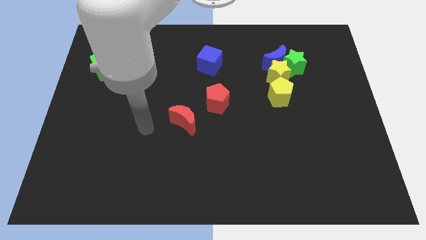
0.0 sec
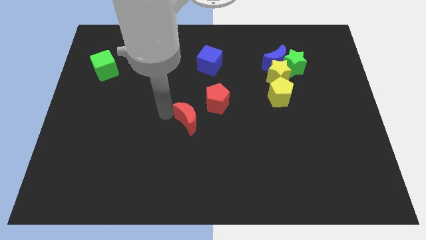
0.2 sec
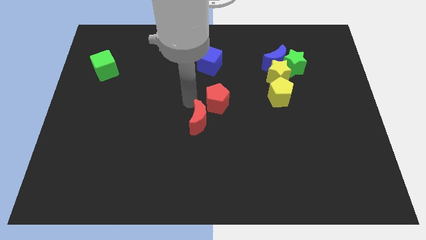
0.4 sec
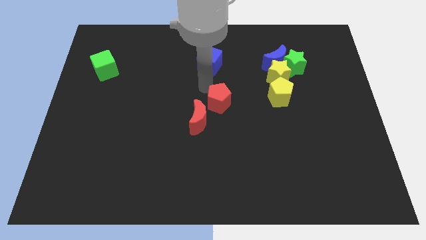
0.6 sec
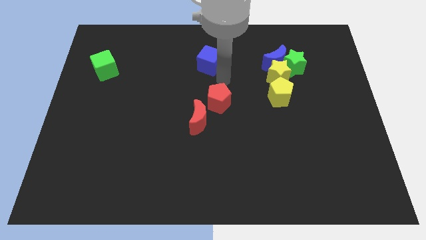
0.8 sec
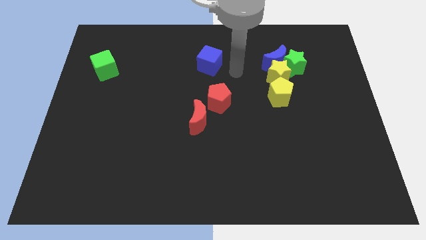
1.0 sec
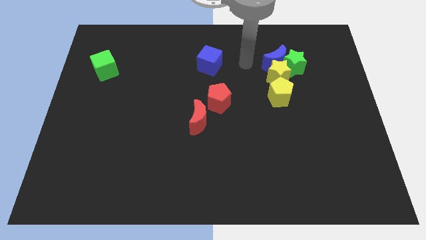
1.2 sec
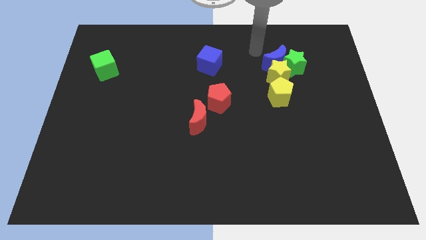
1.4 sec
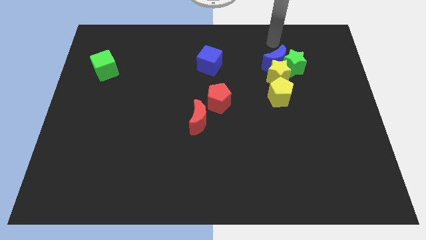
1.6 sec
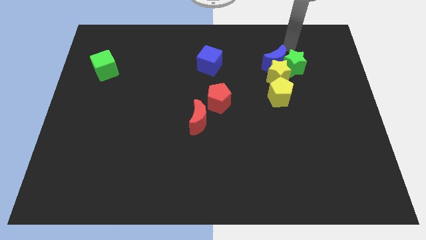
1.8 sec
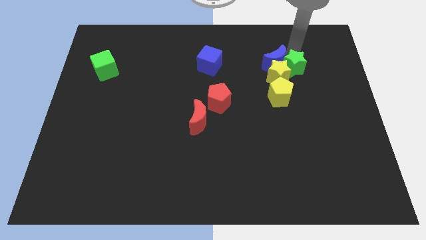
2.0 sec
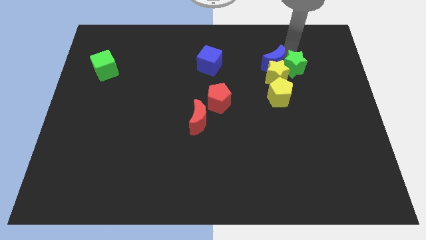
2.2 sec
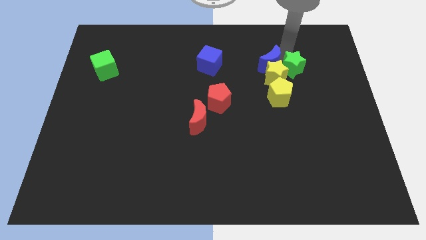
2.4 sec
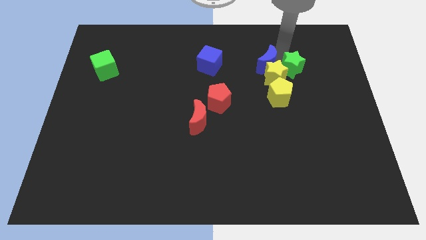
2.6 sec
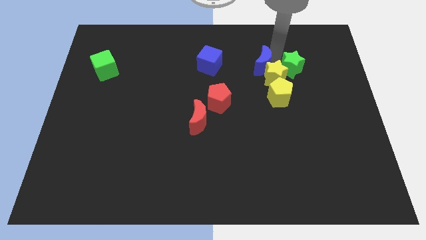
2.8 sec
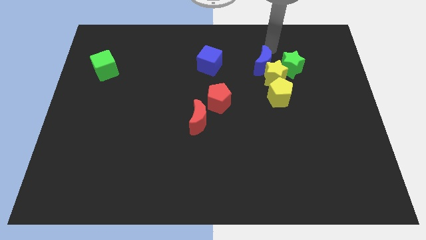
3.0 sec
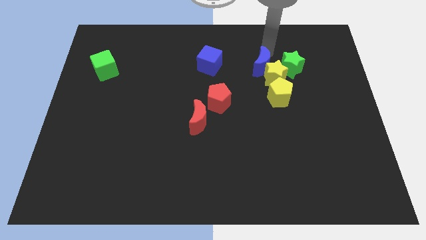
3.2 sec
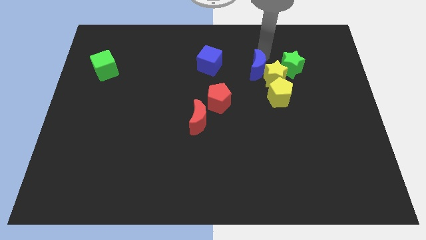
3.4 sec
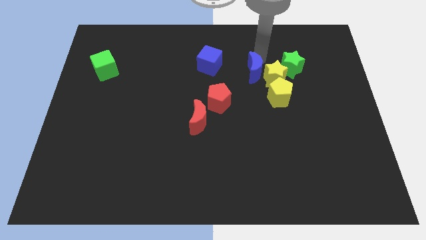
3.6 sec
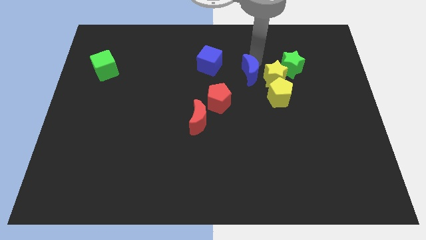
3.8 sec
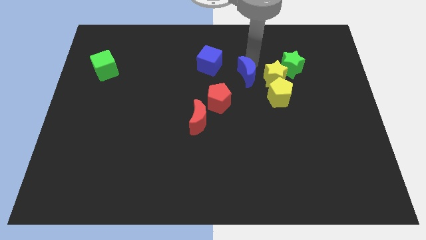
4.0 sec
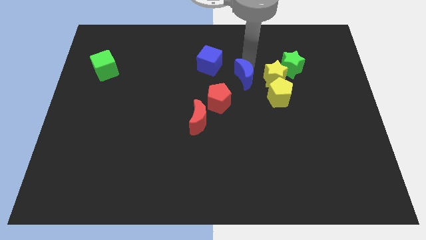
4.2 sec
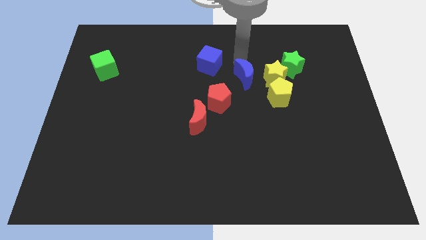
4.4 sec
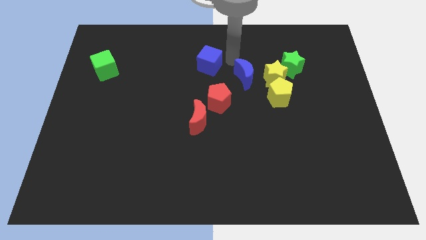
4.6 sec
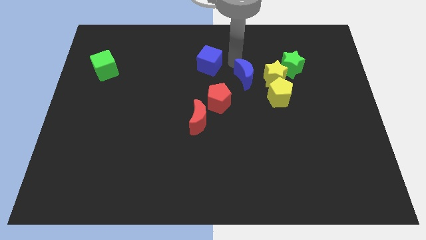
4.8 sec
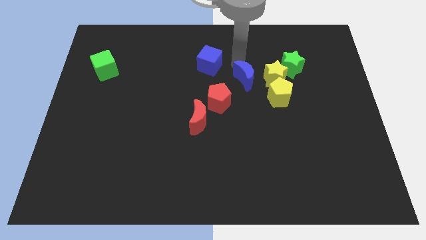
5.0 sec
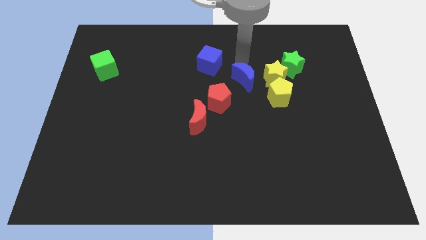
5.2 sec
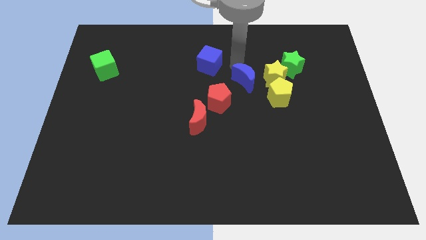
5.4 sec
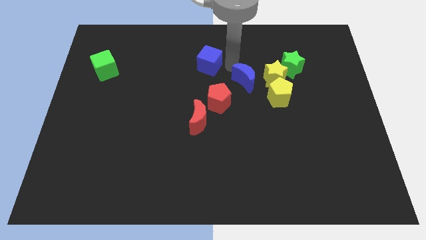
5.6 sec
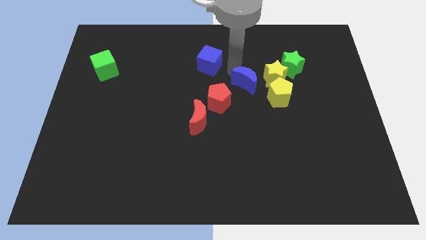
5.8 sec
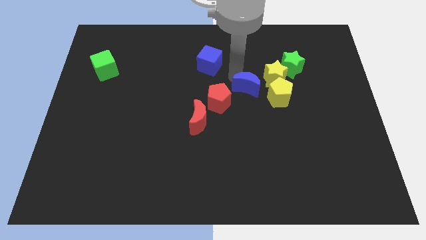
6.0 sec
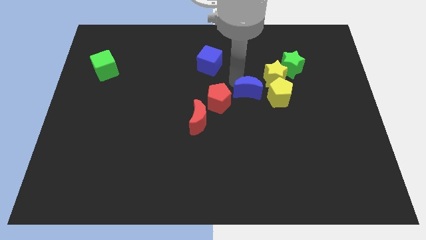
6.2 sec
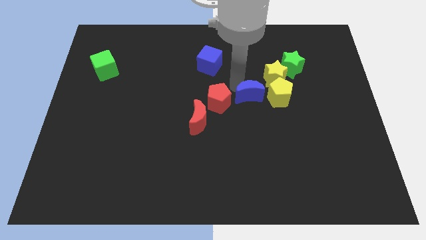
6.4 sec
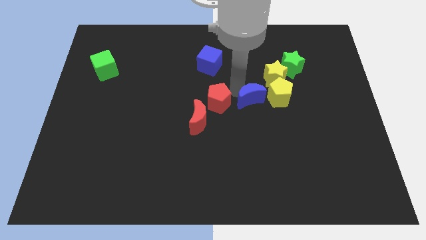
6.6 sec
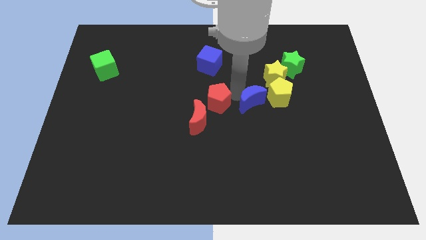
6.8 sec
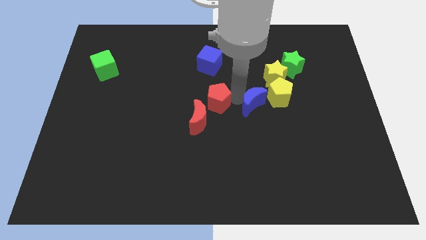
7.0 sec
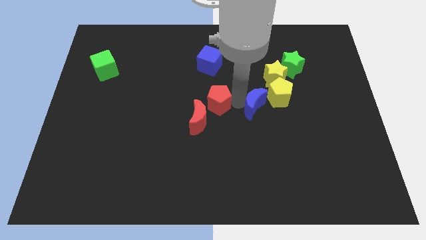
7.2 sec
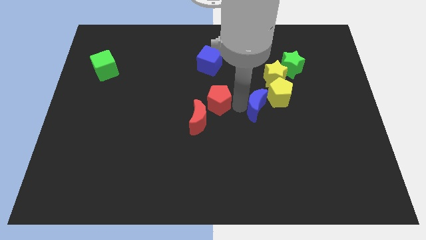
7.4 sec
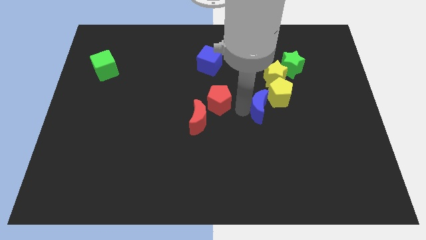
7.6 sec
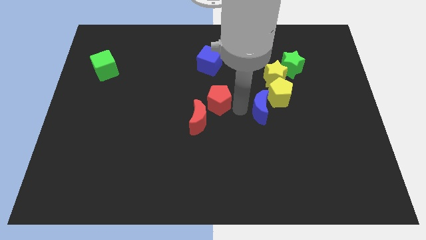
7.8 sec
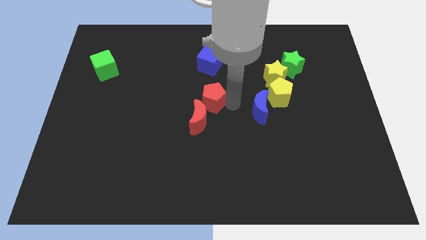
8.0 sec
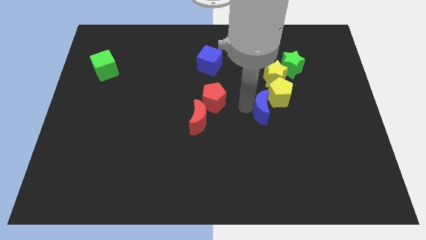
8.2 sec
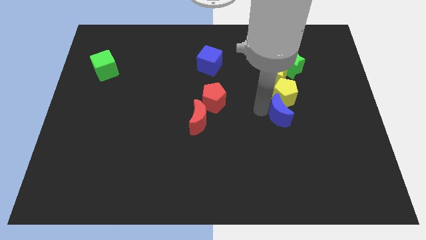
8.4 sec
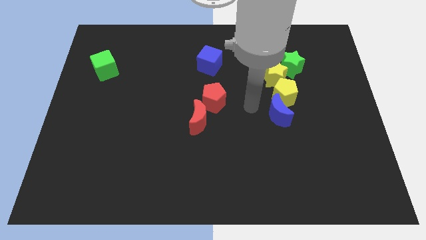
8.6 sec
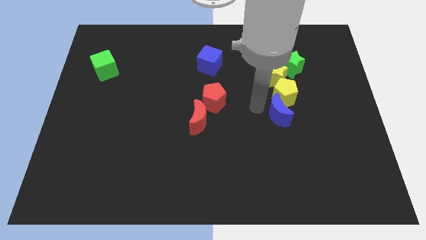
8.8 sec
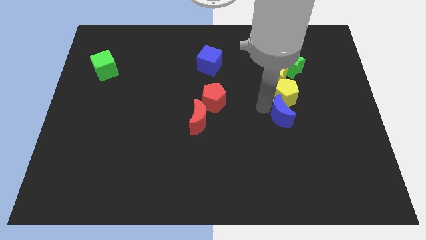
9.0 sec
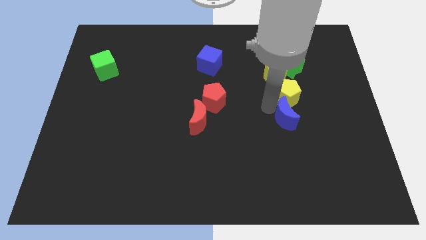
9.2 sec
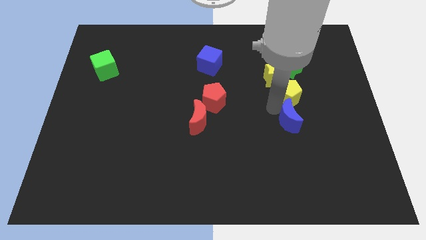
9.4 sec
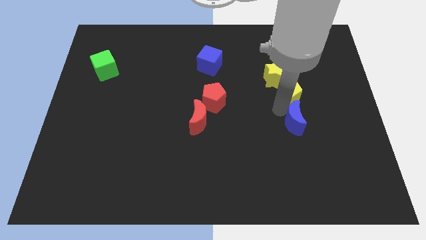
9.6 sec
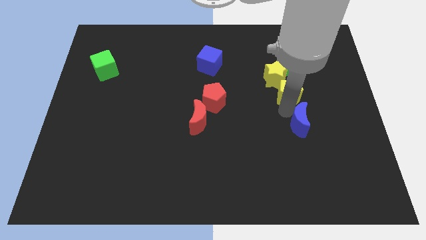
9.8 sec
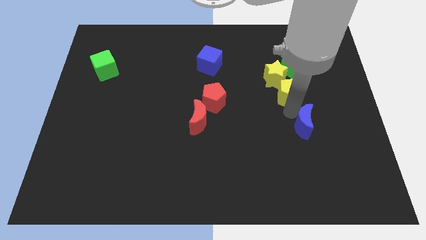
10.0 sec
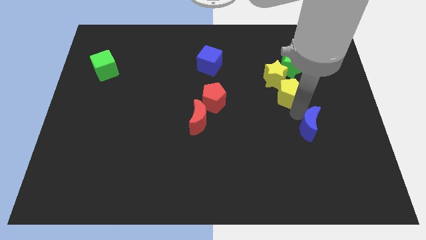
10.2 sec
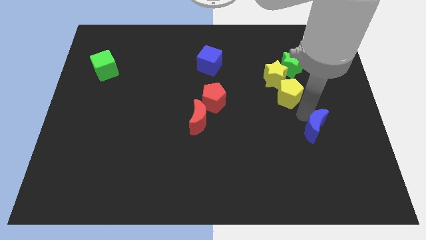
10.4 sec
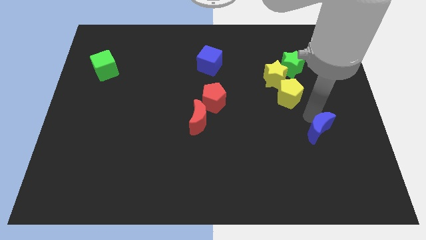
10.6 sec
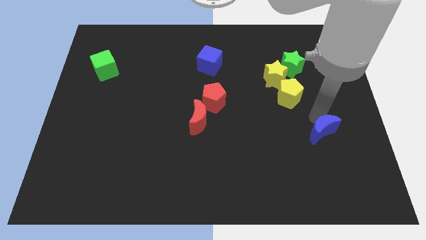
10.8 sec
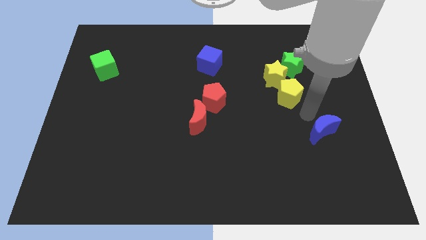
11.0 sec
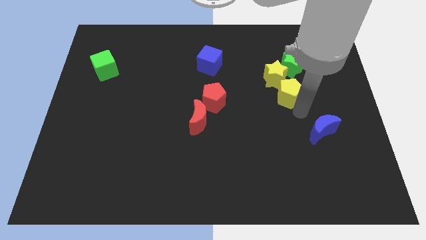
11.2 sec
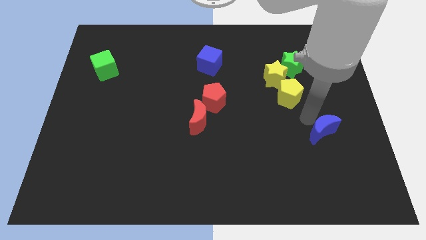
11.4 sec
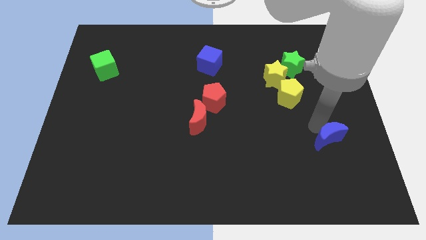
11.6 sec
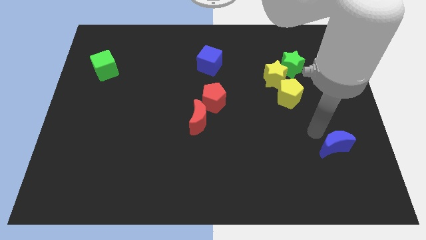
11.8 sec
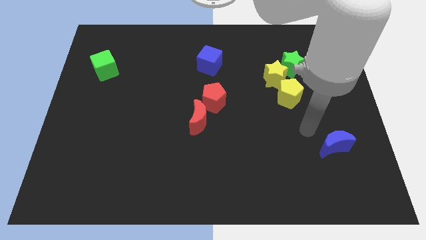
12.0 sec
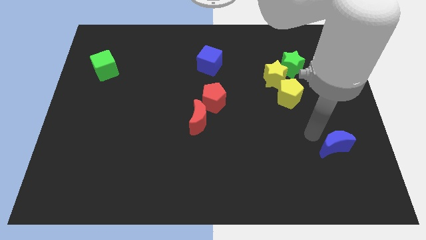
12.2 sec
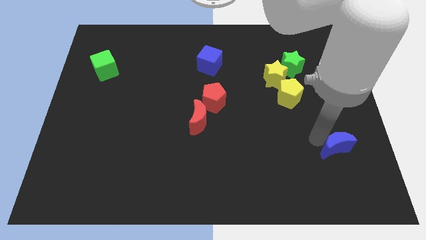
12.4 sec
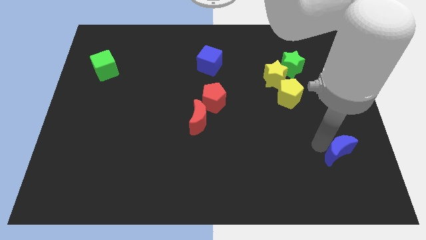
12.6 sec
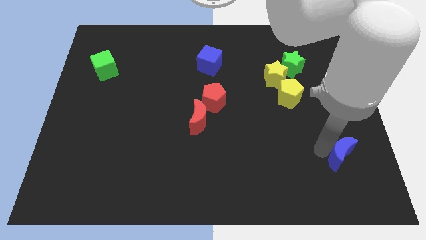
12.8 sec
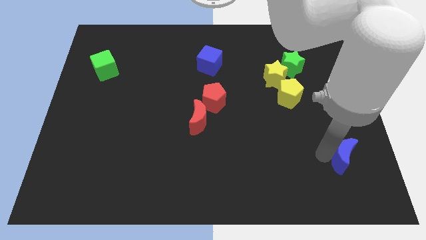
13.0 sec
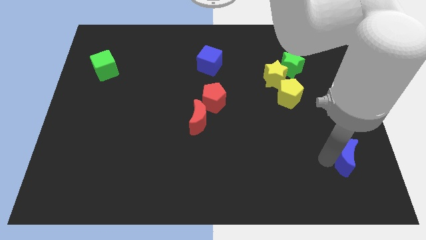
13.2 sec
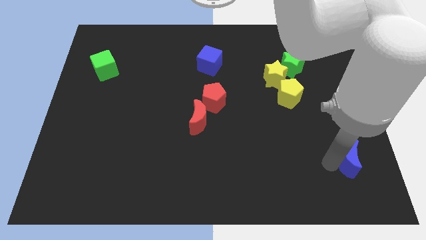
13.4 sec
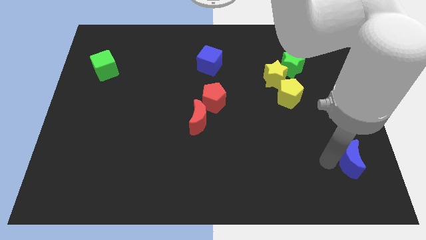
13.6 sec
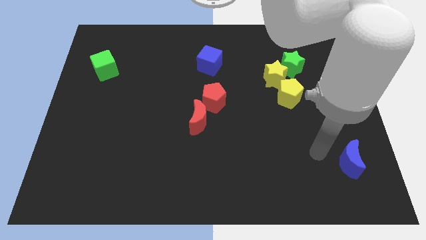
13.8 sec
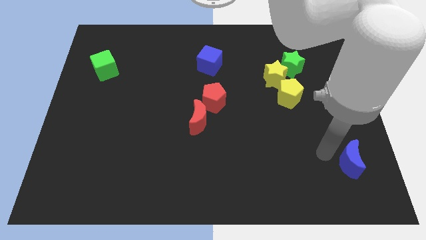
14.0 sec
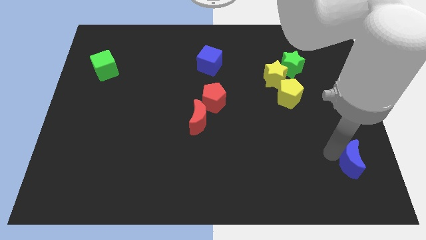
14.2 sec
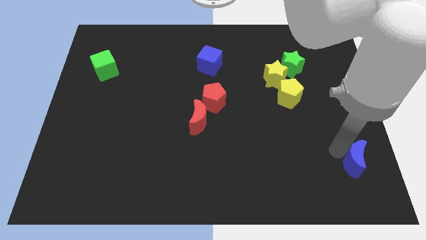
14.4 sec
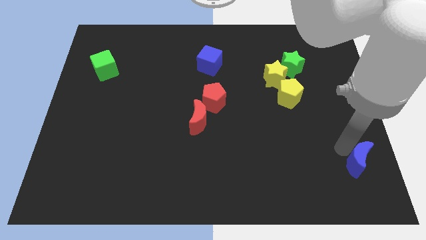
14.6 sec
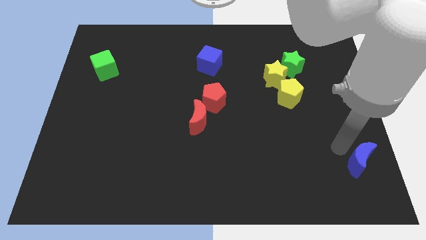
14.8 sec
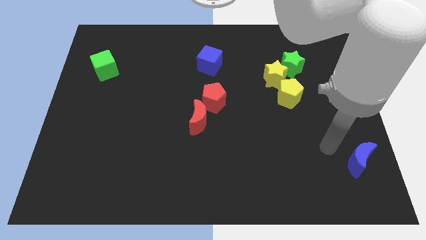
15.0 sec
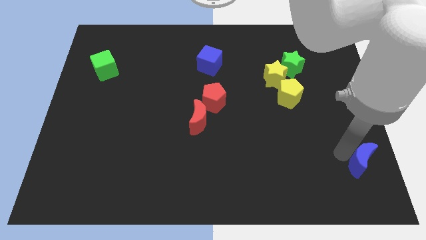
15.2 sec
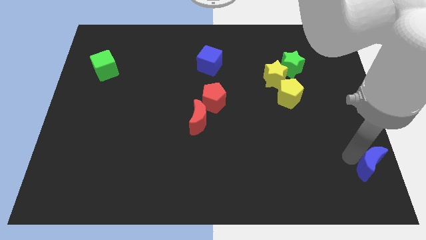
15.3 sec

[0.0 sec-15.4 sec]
slide the blue moon to the bottom right corner
